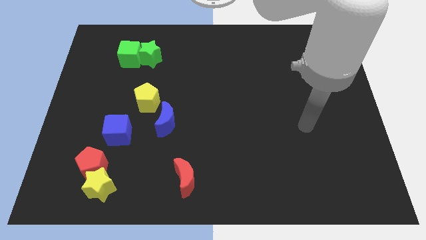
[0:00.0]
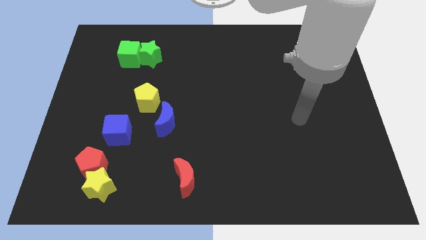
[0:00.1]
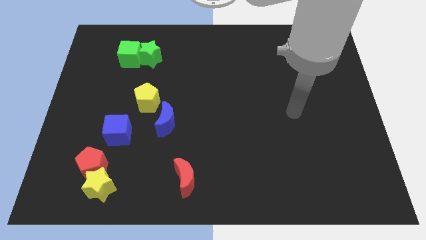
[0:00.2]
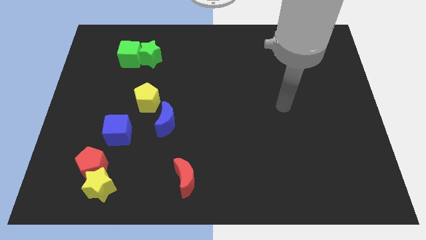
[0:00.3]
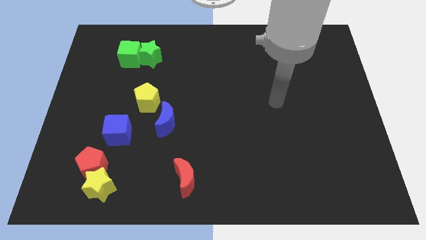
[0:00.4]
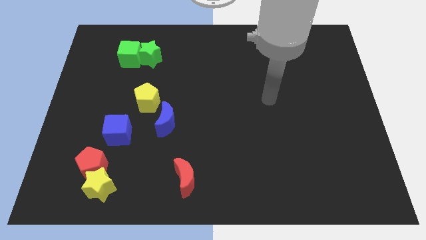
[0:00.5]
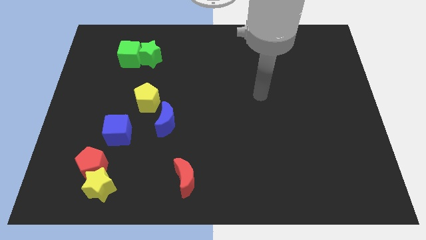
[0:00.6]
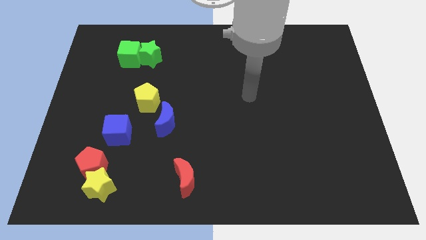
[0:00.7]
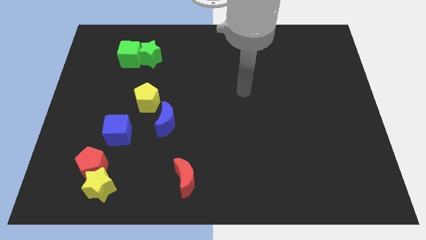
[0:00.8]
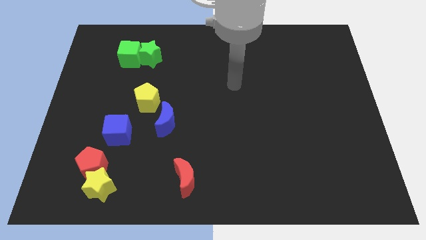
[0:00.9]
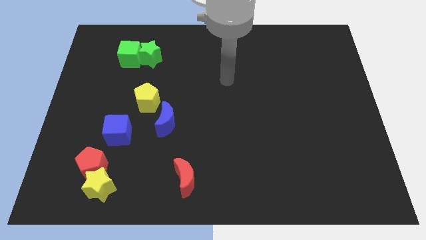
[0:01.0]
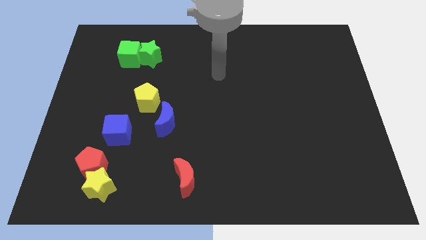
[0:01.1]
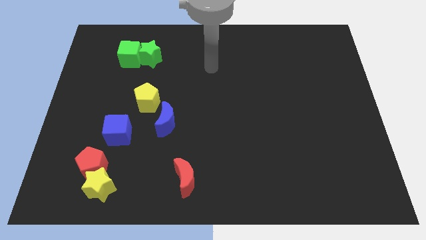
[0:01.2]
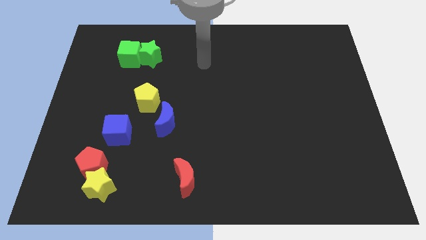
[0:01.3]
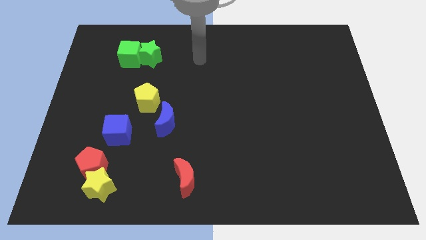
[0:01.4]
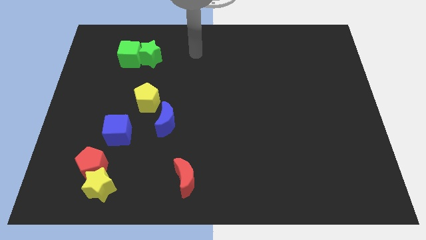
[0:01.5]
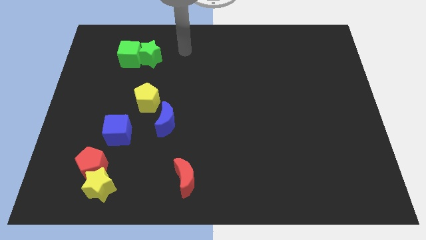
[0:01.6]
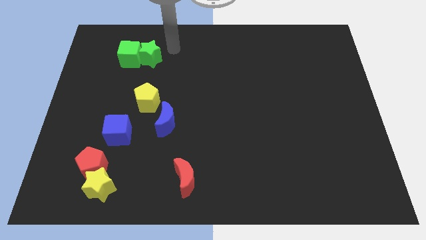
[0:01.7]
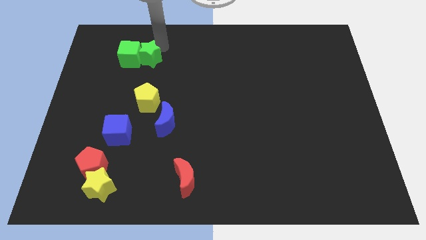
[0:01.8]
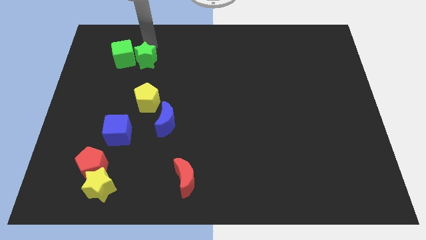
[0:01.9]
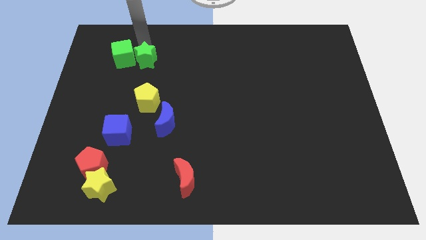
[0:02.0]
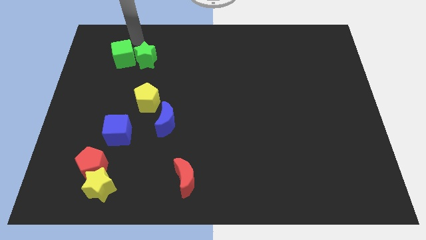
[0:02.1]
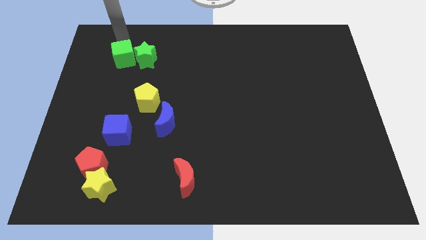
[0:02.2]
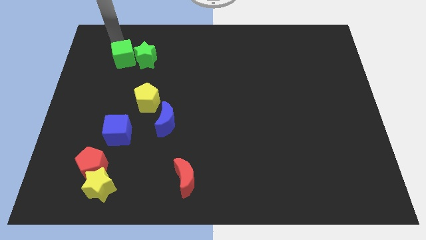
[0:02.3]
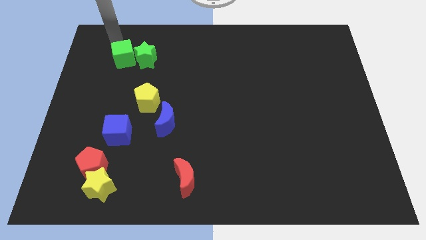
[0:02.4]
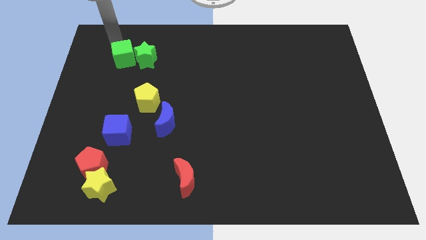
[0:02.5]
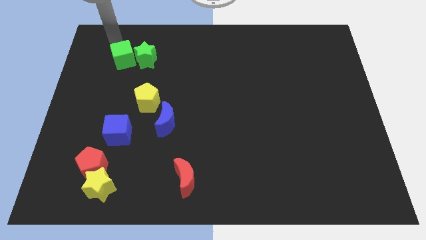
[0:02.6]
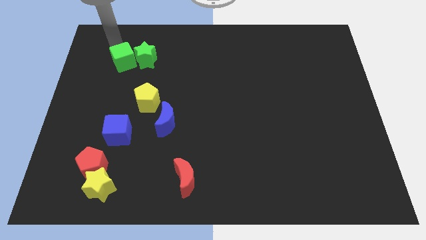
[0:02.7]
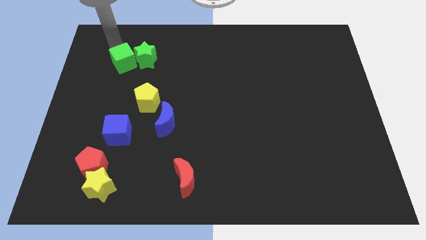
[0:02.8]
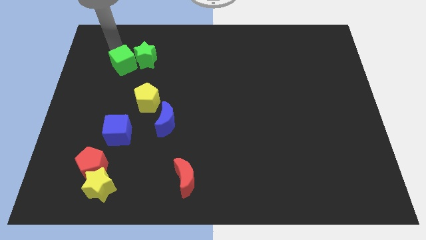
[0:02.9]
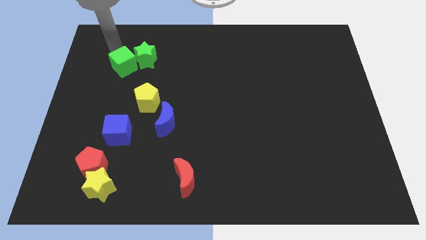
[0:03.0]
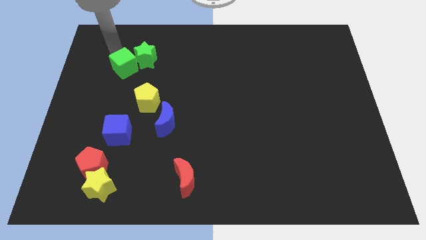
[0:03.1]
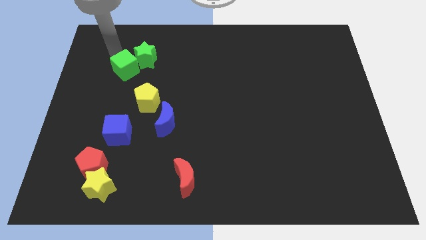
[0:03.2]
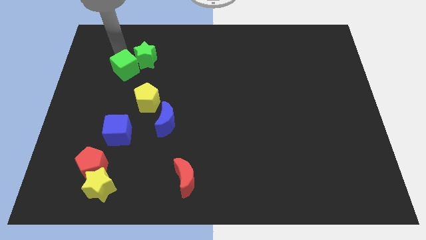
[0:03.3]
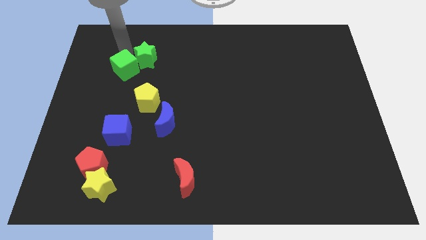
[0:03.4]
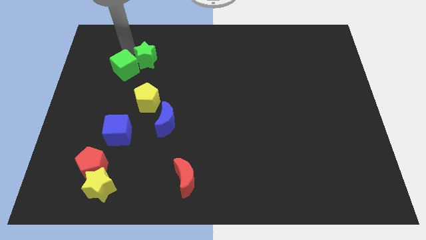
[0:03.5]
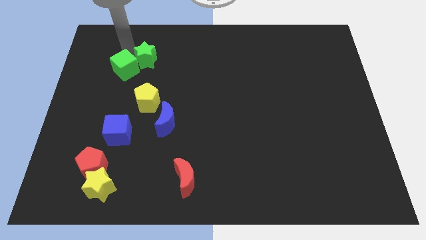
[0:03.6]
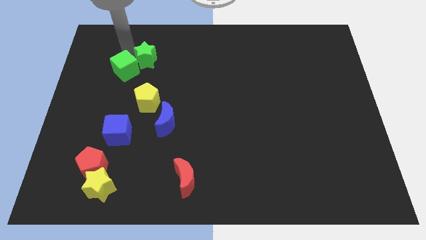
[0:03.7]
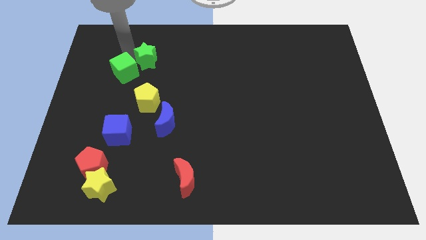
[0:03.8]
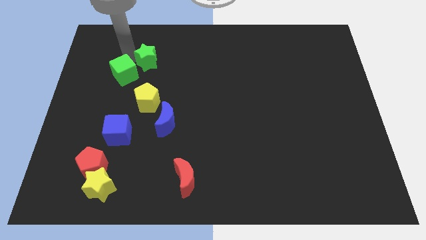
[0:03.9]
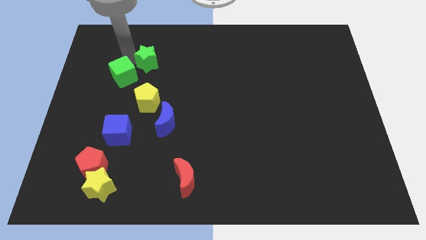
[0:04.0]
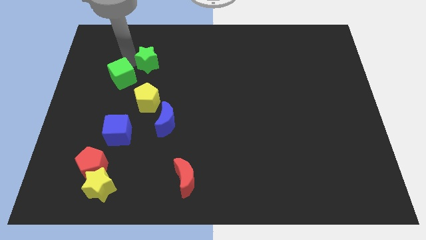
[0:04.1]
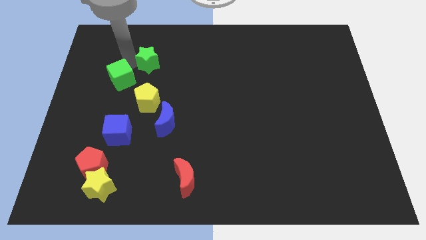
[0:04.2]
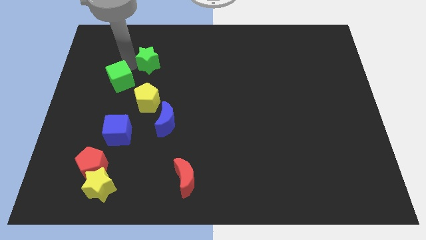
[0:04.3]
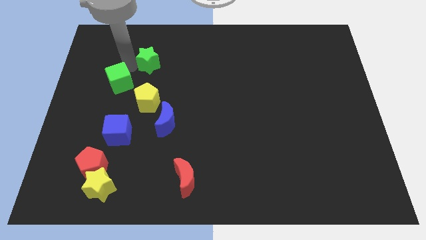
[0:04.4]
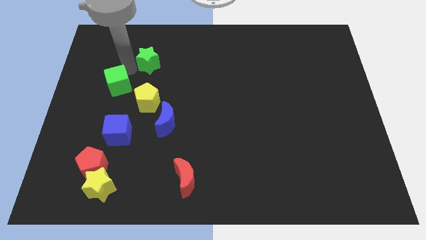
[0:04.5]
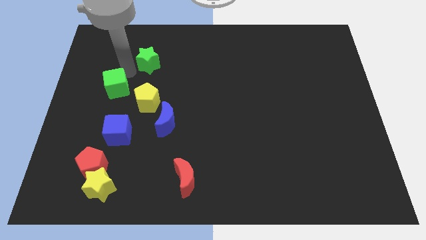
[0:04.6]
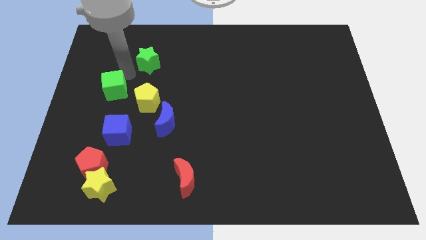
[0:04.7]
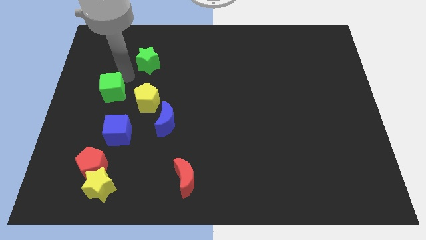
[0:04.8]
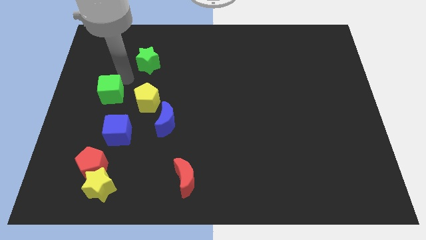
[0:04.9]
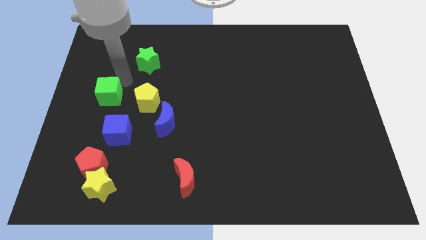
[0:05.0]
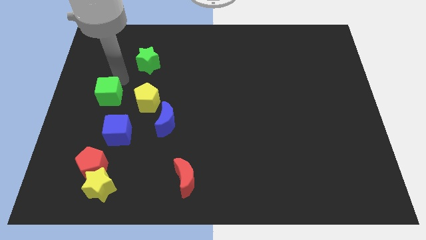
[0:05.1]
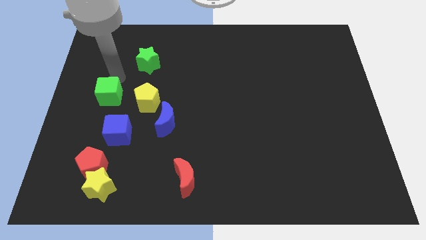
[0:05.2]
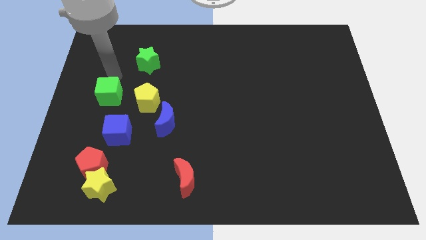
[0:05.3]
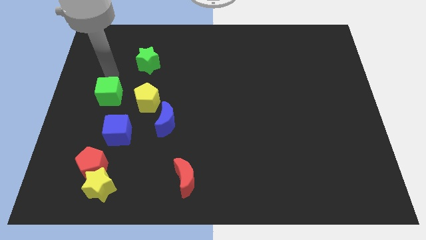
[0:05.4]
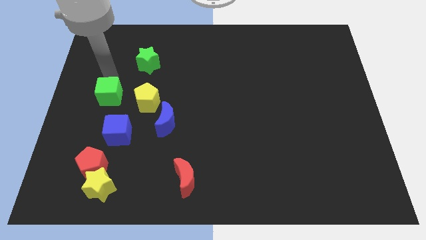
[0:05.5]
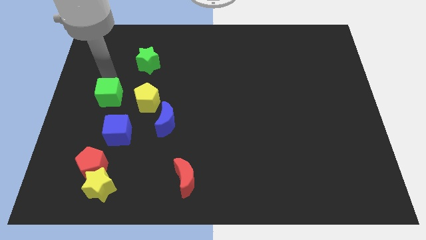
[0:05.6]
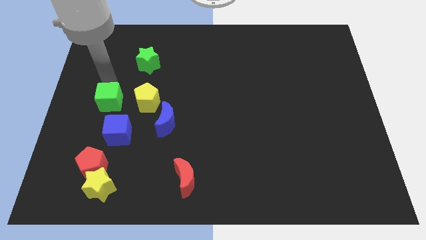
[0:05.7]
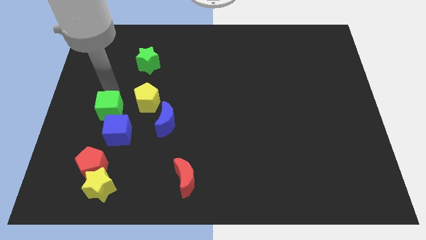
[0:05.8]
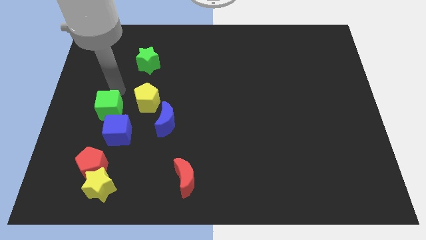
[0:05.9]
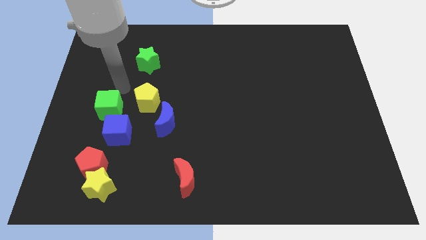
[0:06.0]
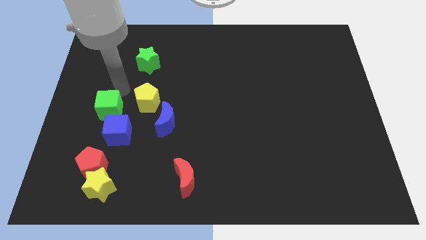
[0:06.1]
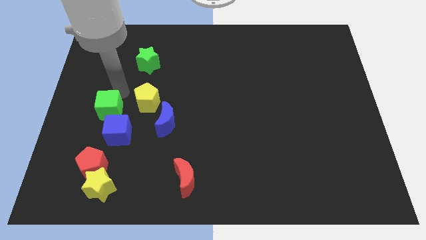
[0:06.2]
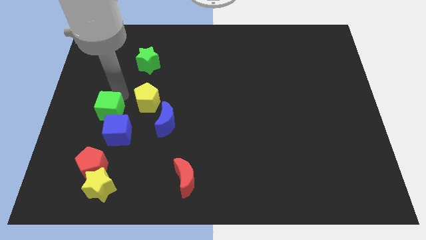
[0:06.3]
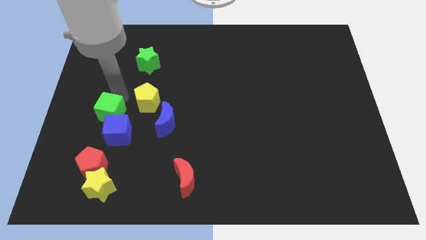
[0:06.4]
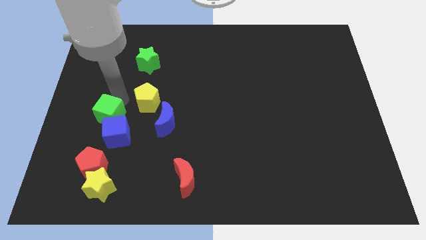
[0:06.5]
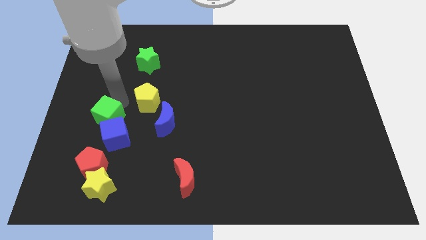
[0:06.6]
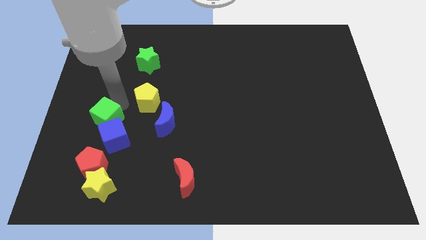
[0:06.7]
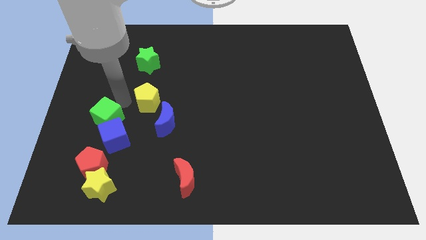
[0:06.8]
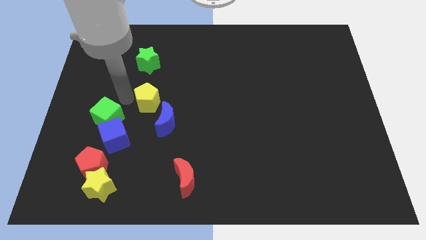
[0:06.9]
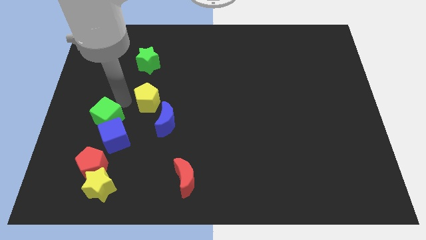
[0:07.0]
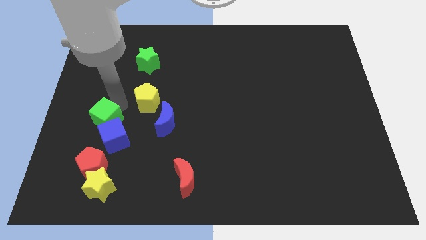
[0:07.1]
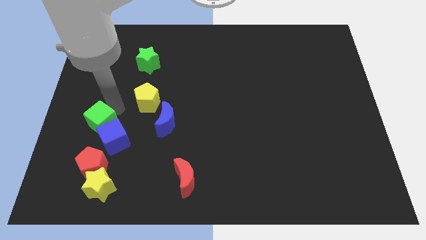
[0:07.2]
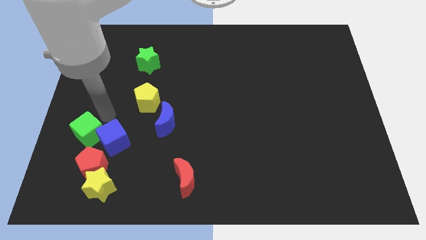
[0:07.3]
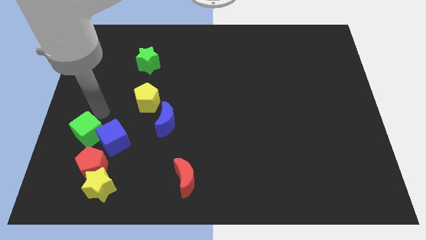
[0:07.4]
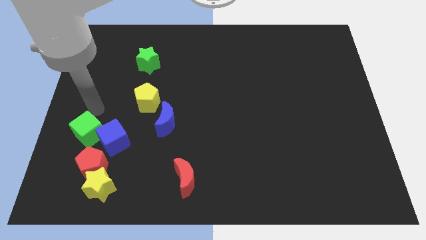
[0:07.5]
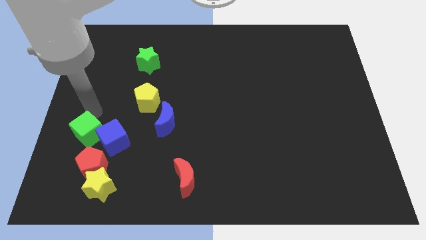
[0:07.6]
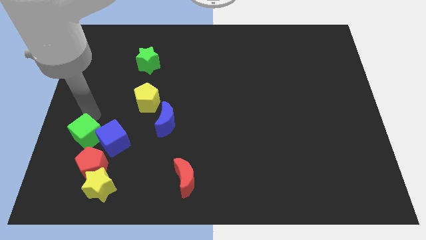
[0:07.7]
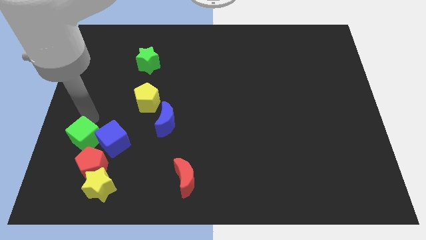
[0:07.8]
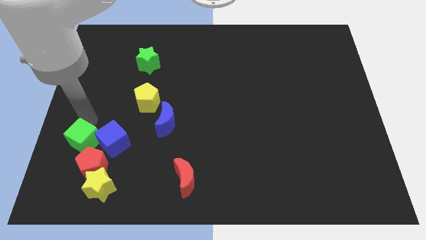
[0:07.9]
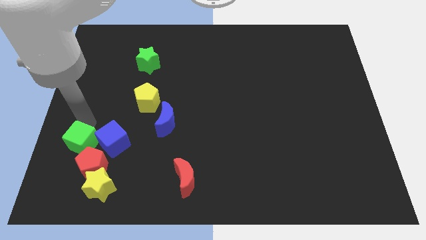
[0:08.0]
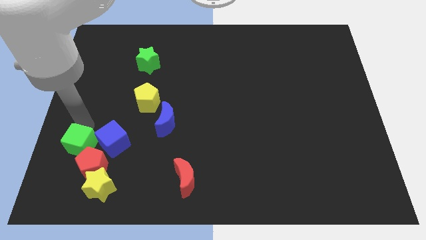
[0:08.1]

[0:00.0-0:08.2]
put the green cube to the top left of the yellow star
